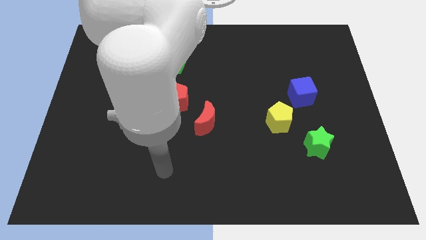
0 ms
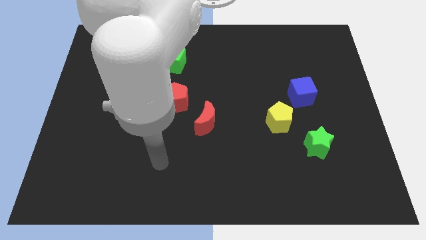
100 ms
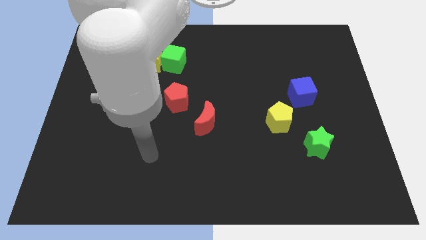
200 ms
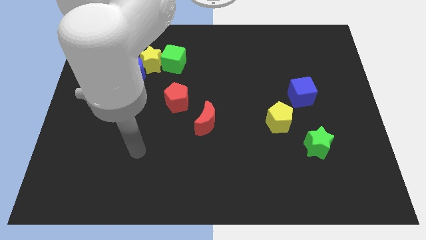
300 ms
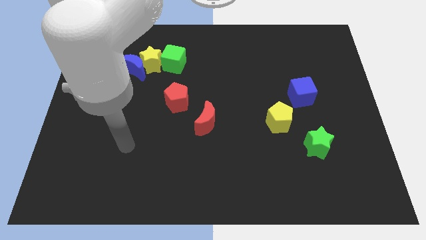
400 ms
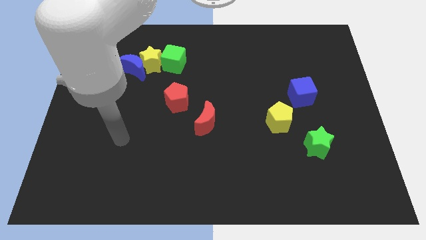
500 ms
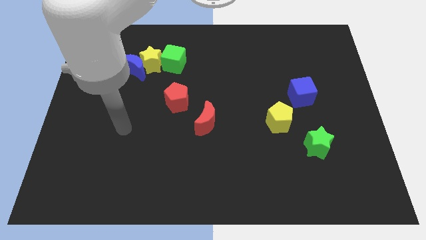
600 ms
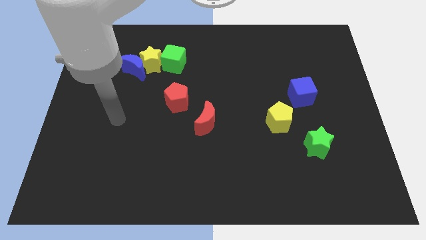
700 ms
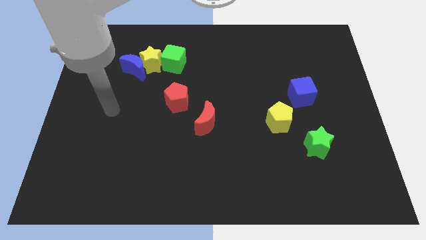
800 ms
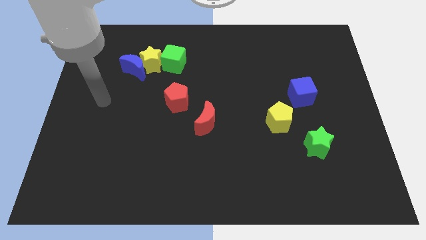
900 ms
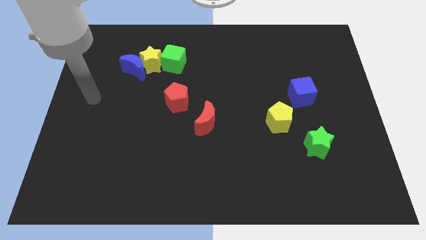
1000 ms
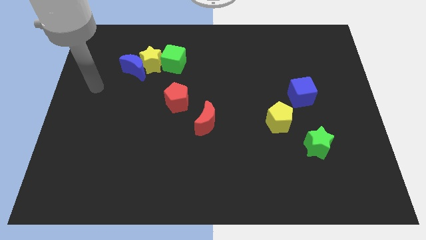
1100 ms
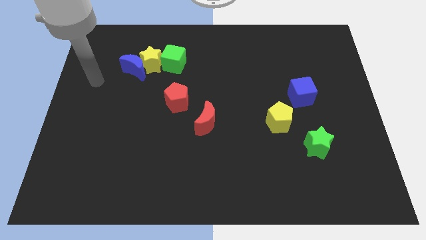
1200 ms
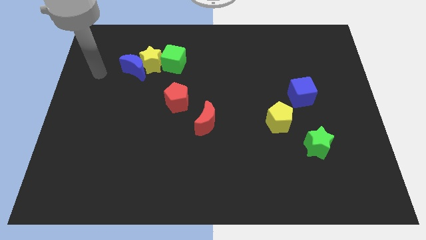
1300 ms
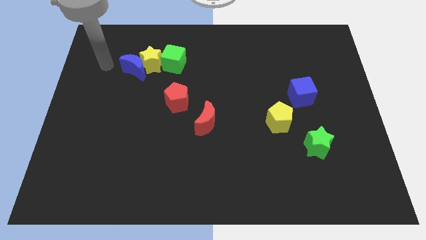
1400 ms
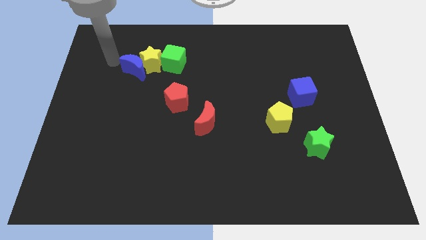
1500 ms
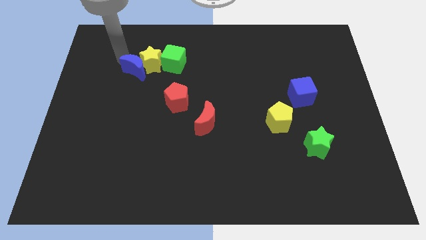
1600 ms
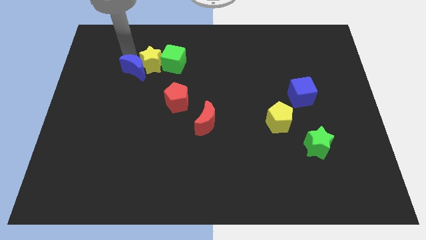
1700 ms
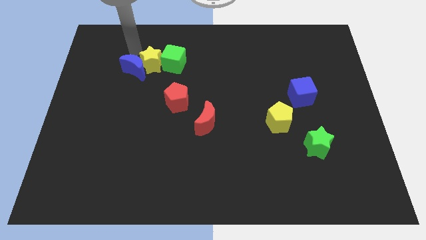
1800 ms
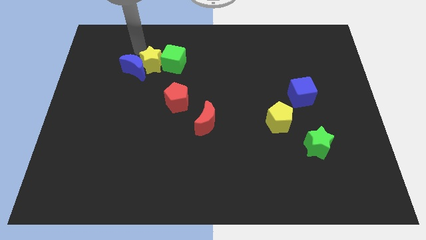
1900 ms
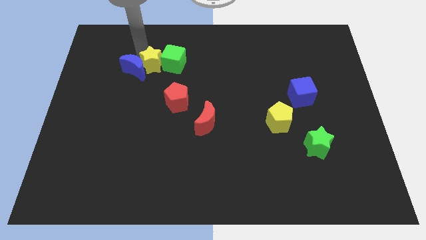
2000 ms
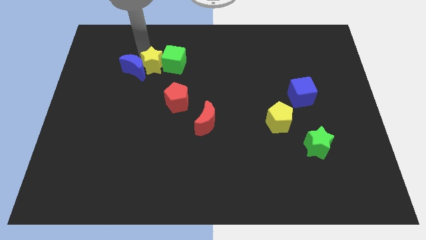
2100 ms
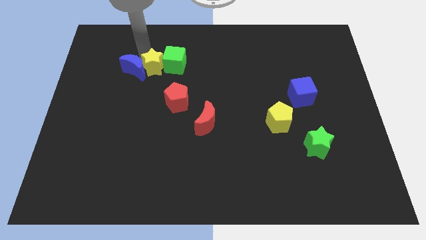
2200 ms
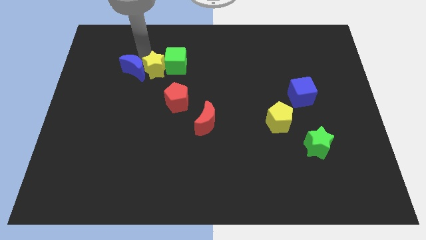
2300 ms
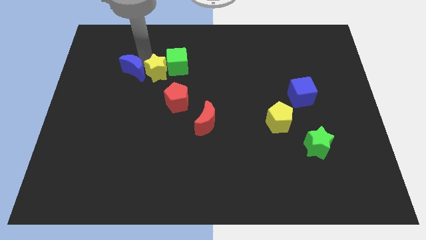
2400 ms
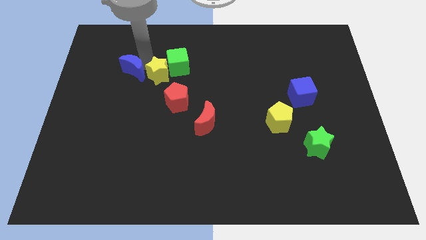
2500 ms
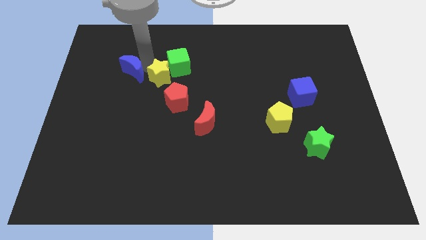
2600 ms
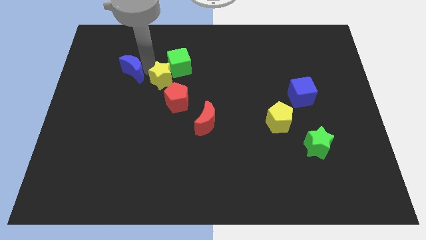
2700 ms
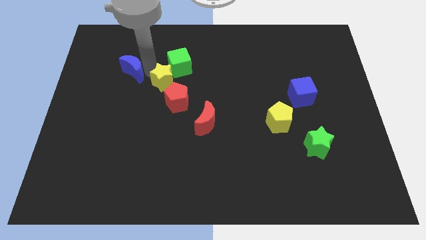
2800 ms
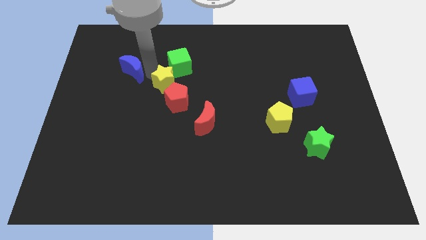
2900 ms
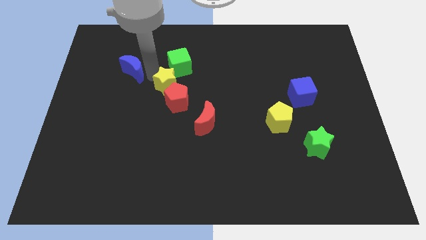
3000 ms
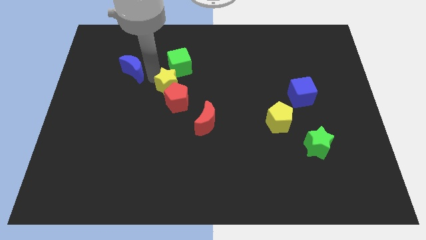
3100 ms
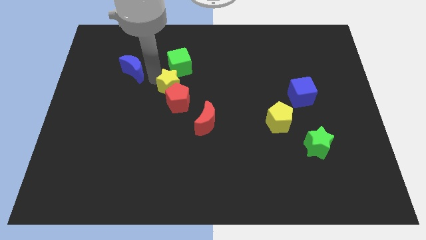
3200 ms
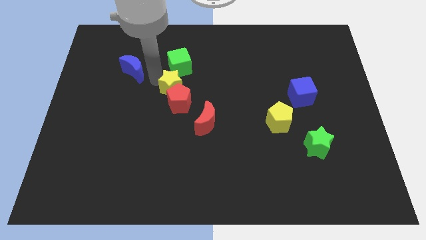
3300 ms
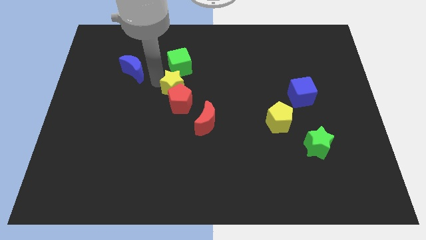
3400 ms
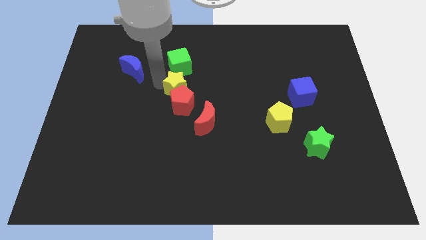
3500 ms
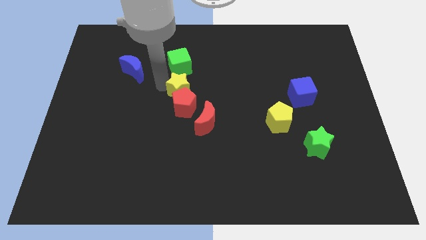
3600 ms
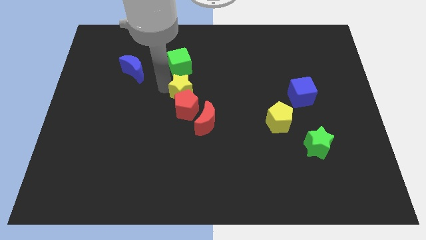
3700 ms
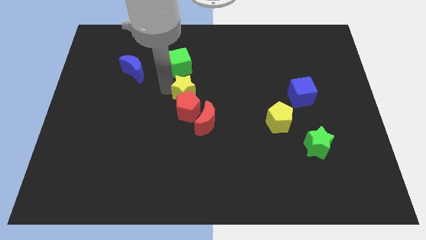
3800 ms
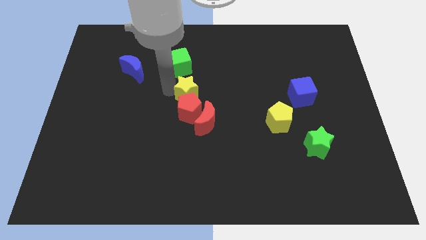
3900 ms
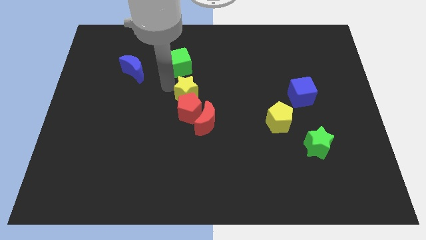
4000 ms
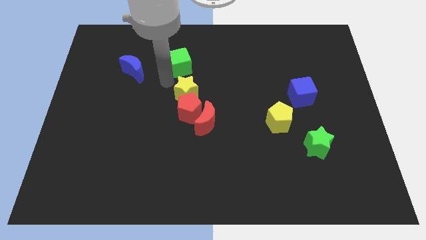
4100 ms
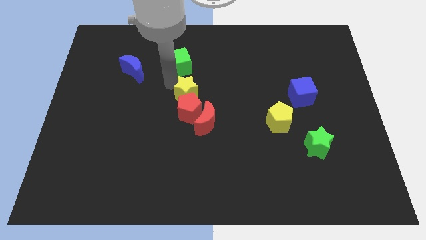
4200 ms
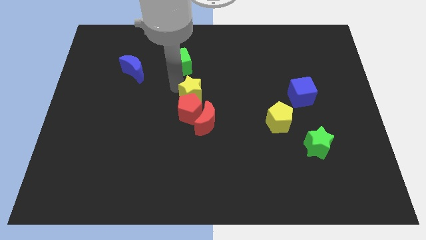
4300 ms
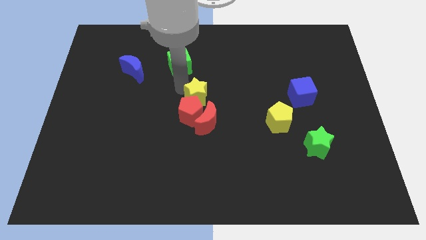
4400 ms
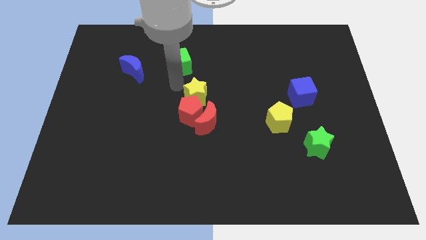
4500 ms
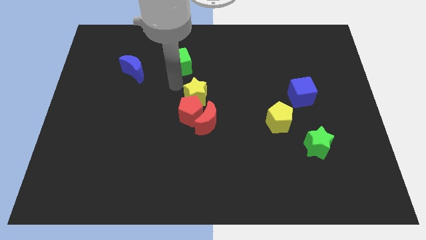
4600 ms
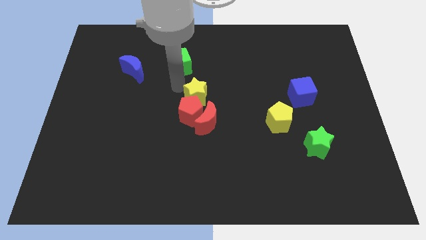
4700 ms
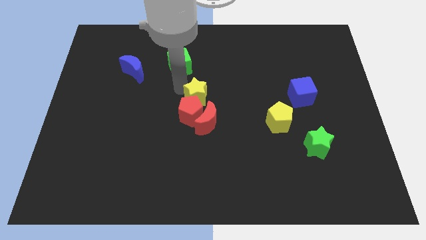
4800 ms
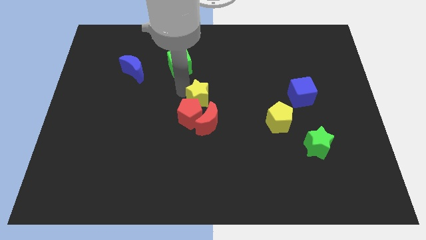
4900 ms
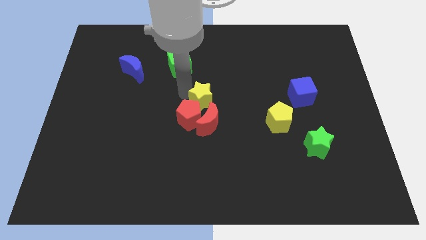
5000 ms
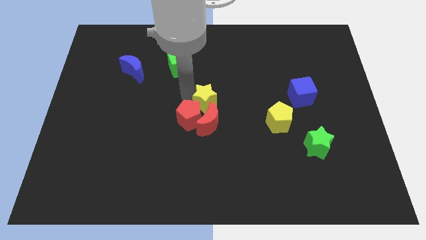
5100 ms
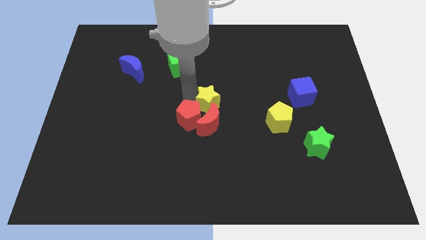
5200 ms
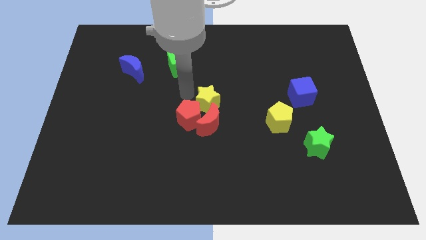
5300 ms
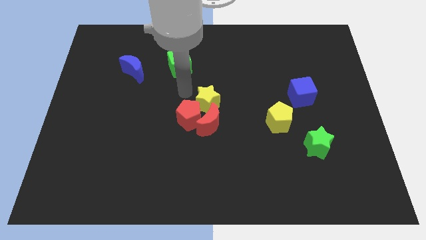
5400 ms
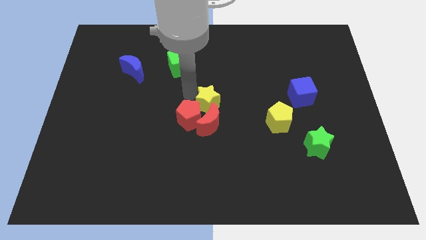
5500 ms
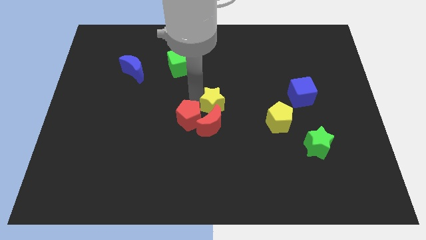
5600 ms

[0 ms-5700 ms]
push the yellow star down and then to the right

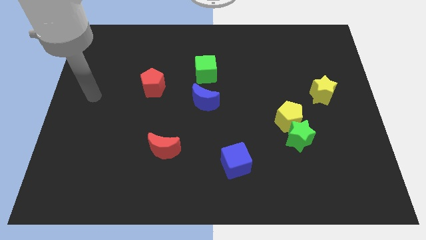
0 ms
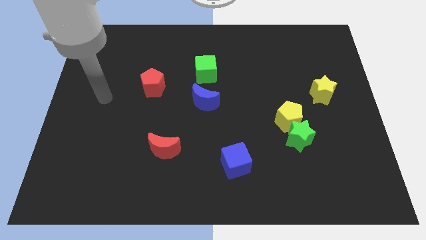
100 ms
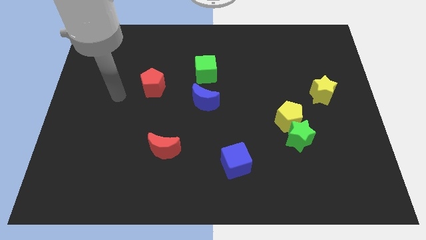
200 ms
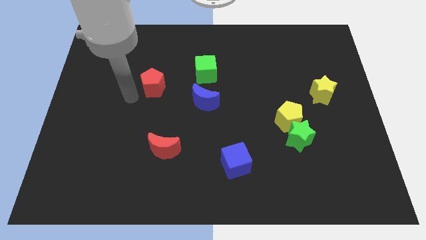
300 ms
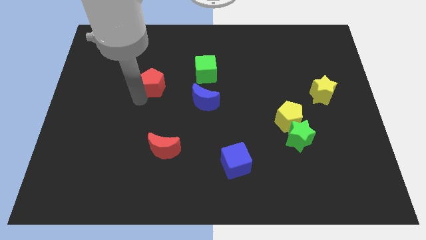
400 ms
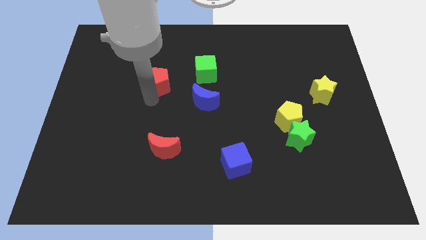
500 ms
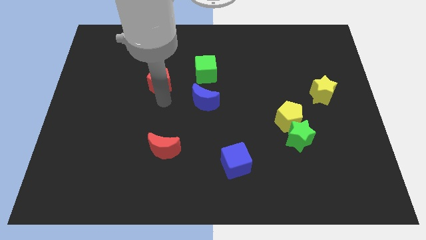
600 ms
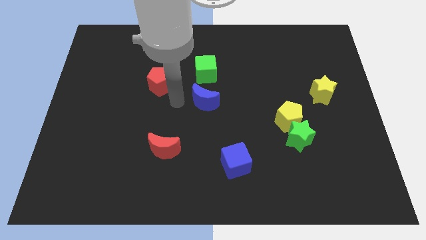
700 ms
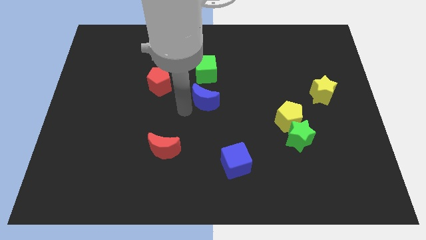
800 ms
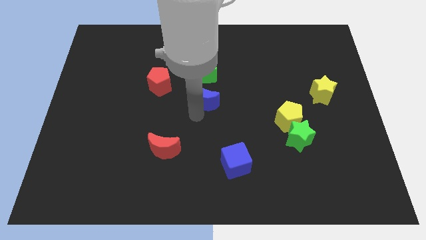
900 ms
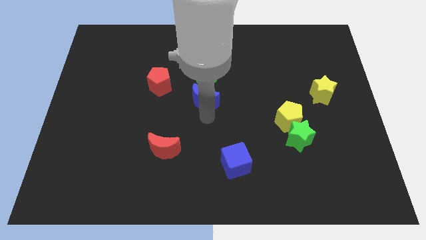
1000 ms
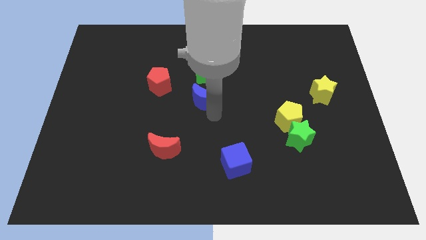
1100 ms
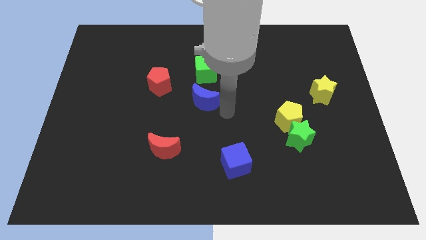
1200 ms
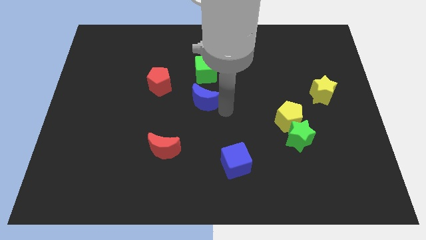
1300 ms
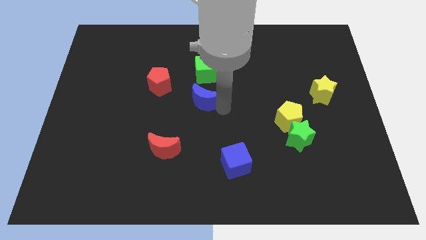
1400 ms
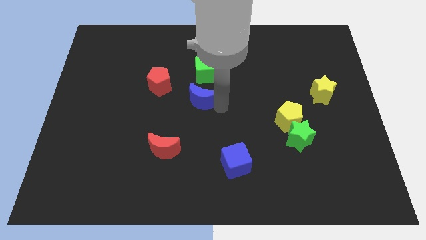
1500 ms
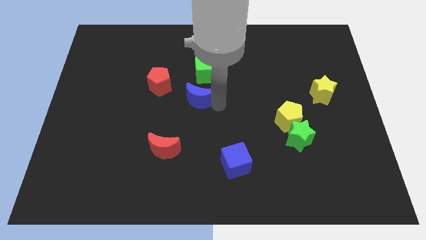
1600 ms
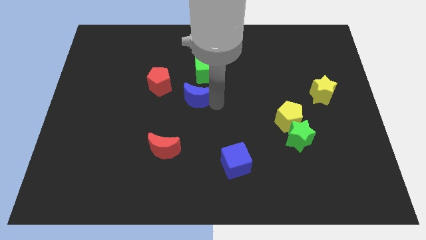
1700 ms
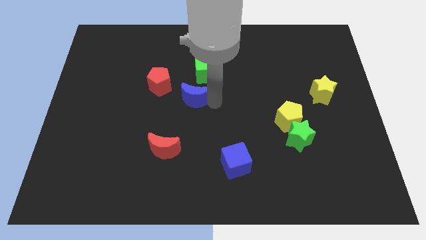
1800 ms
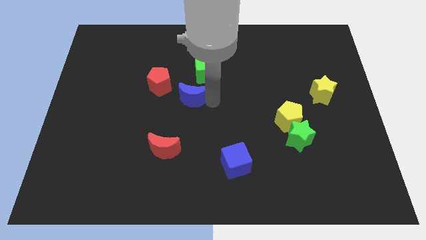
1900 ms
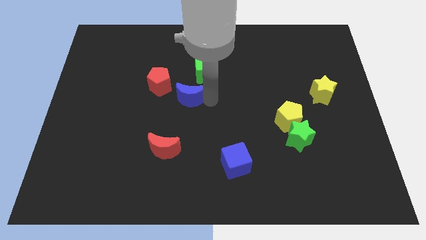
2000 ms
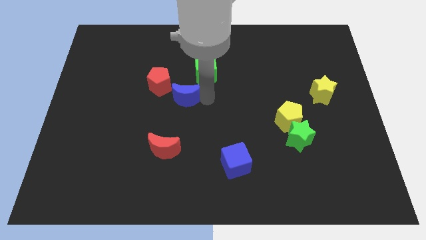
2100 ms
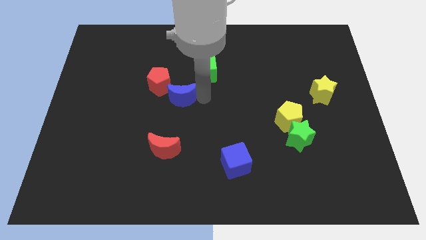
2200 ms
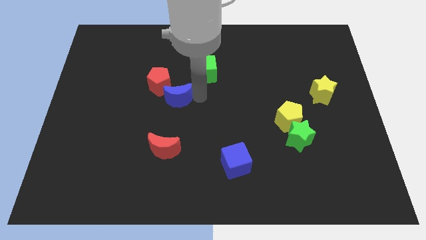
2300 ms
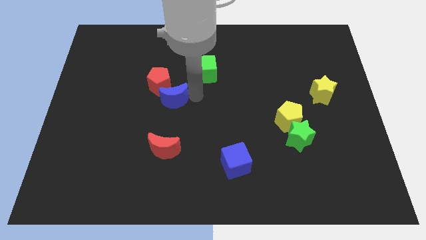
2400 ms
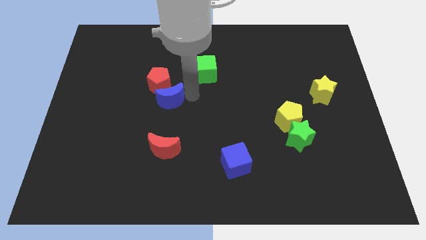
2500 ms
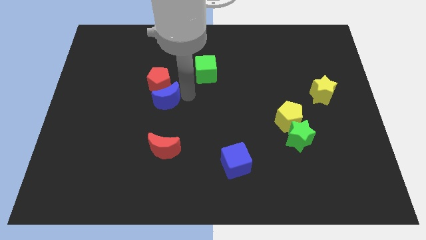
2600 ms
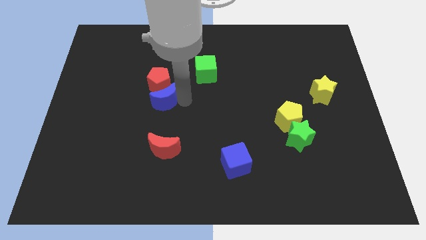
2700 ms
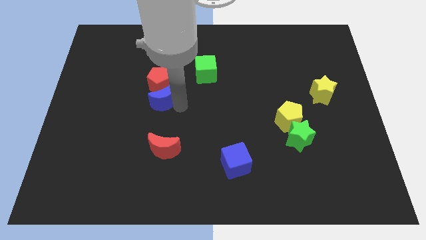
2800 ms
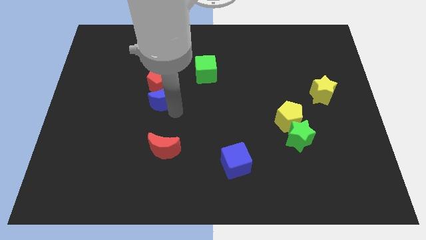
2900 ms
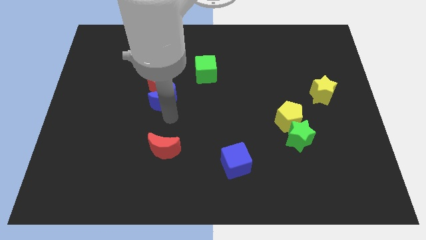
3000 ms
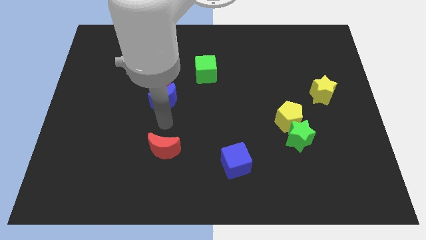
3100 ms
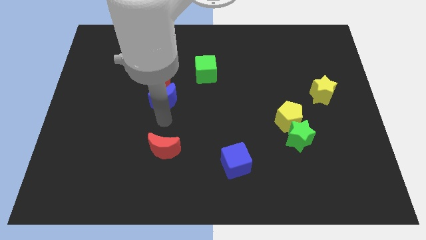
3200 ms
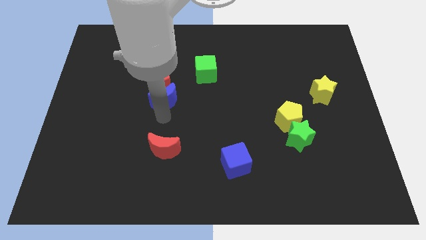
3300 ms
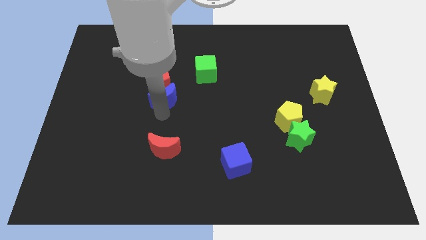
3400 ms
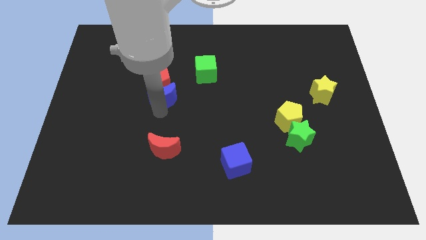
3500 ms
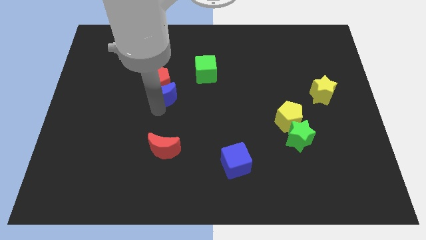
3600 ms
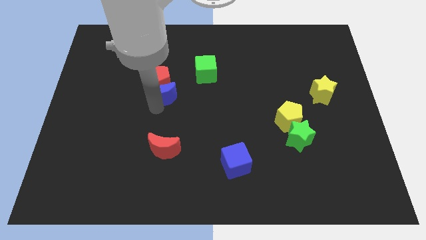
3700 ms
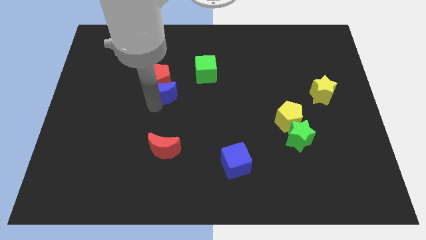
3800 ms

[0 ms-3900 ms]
push the blue moon a little up and then left
